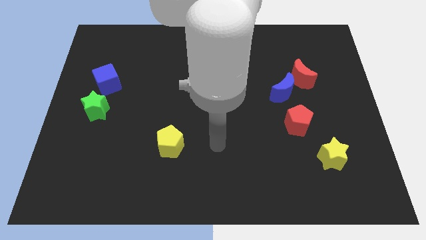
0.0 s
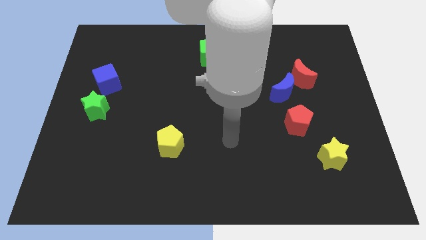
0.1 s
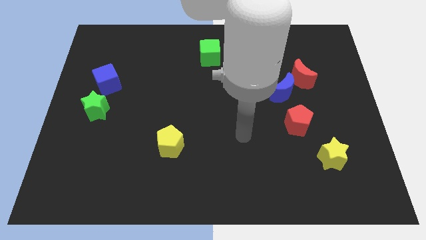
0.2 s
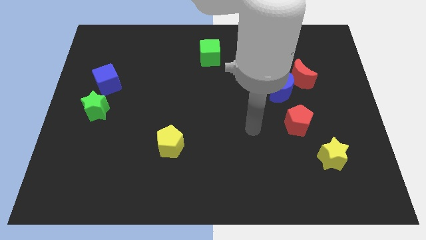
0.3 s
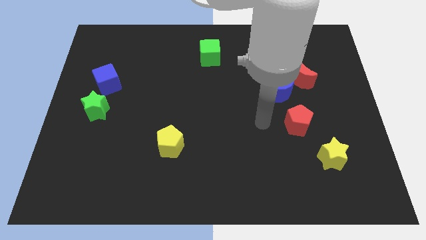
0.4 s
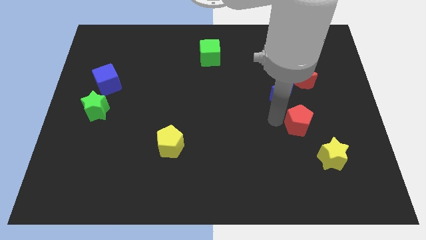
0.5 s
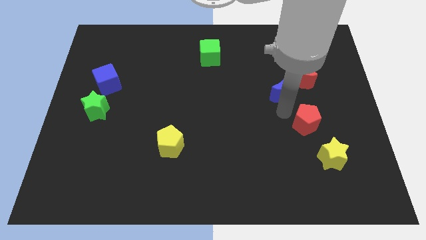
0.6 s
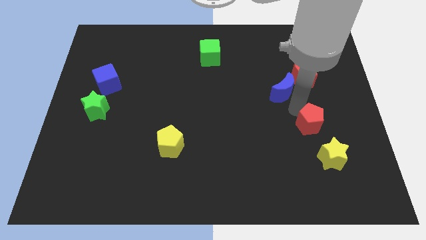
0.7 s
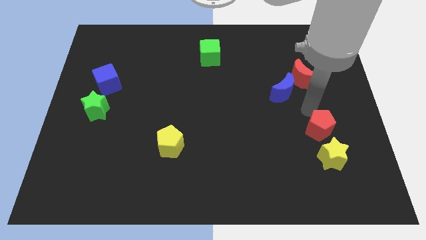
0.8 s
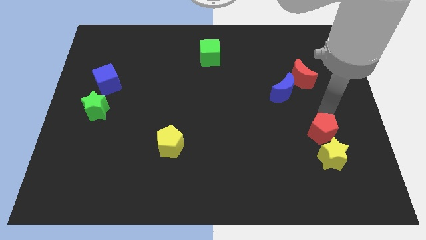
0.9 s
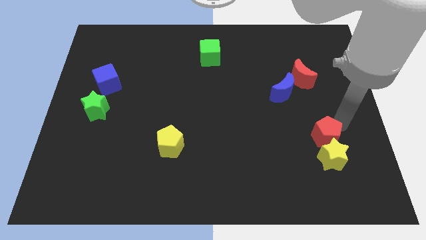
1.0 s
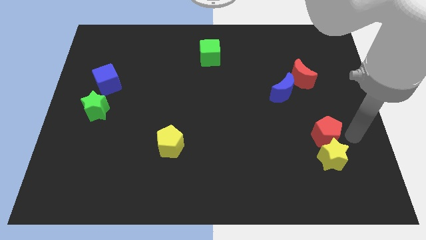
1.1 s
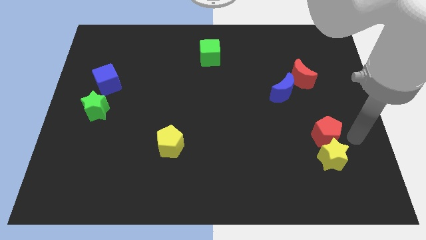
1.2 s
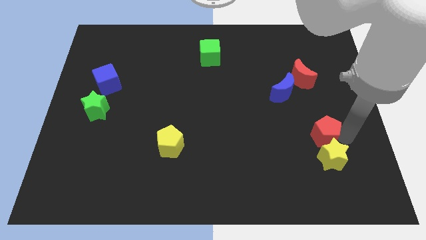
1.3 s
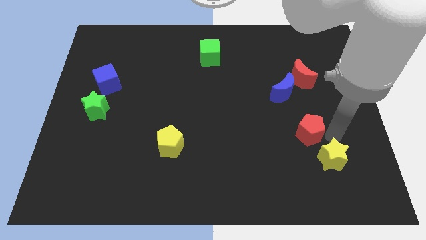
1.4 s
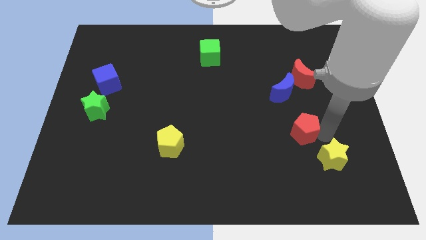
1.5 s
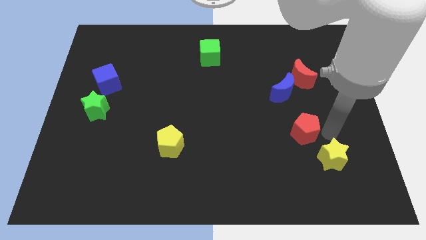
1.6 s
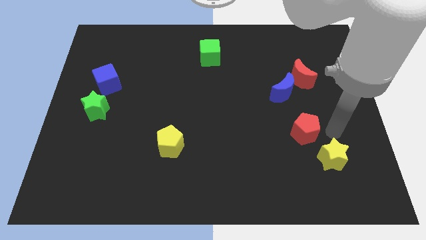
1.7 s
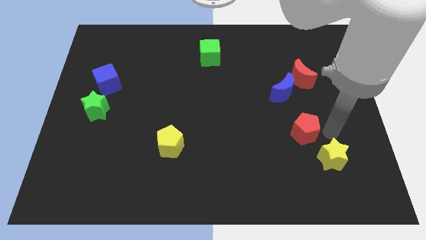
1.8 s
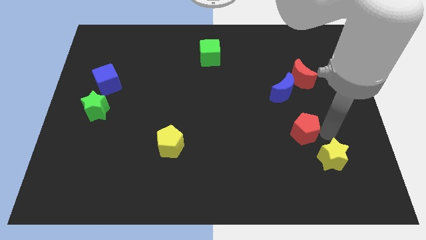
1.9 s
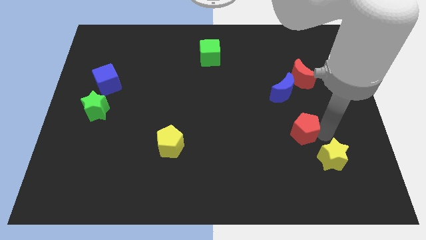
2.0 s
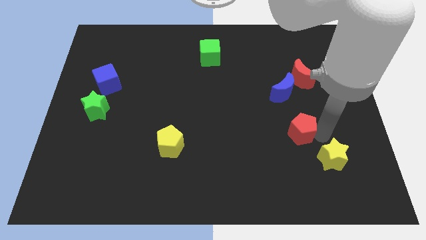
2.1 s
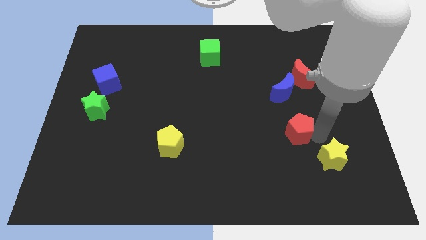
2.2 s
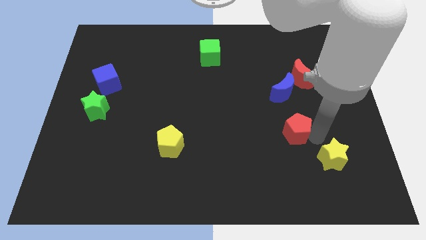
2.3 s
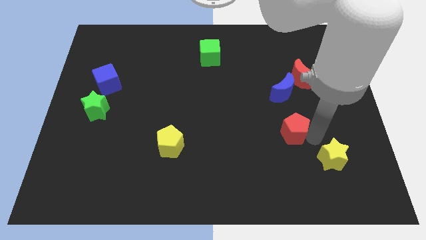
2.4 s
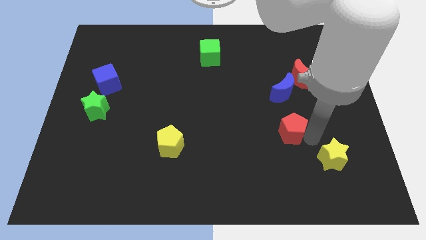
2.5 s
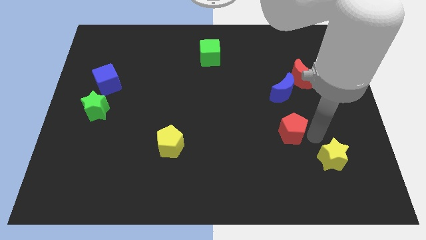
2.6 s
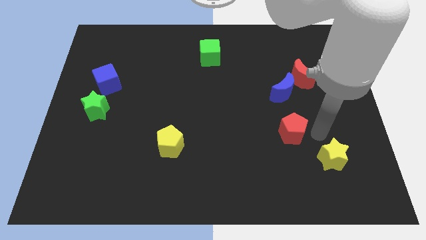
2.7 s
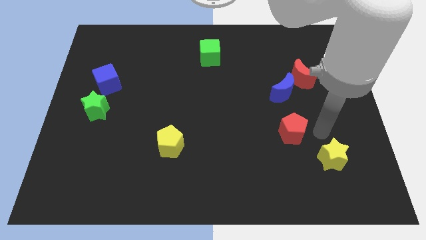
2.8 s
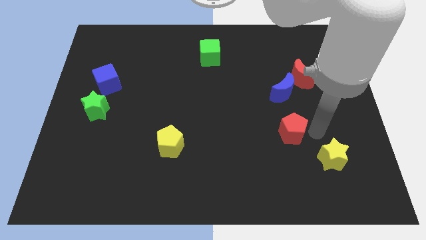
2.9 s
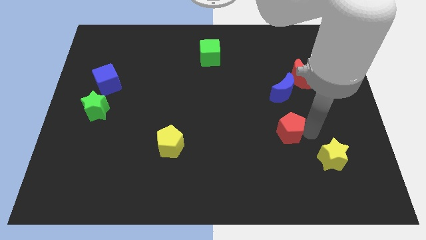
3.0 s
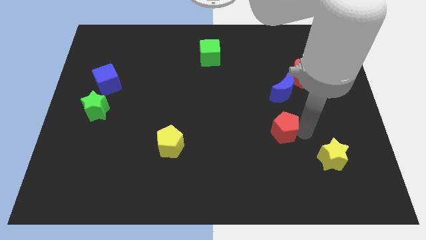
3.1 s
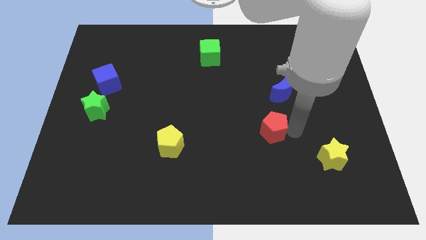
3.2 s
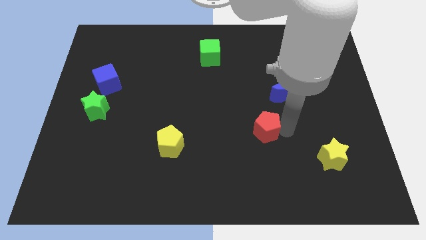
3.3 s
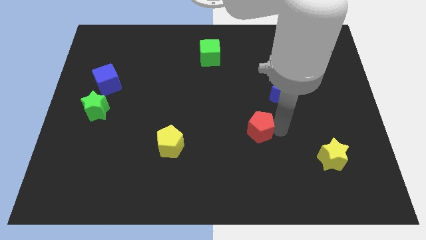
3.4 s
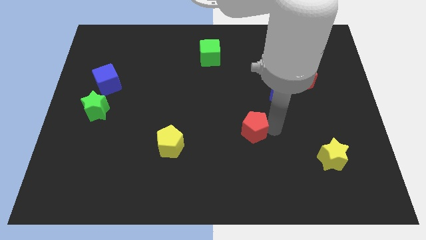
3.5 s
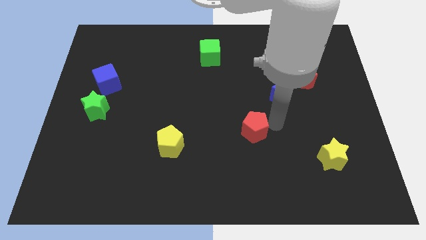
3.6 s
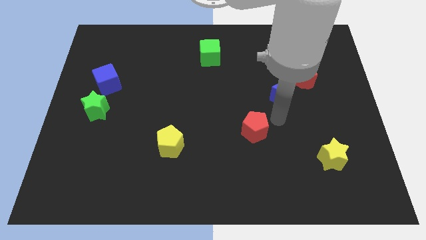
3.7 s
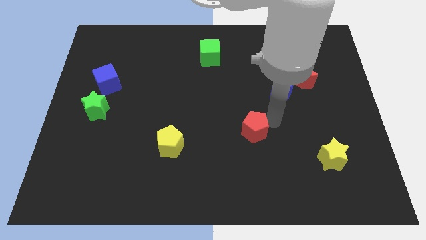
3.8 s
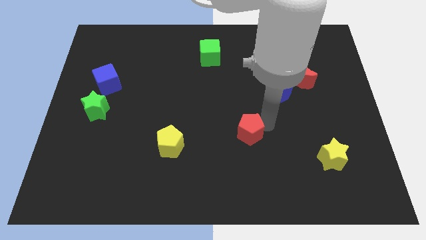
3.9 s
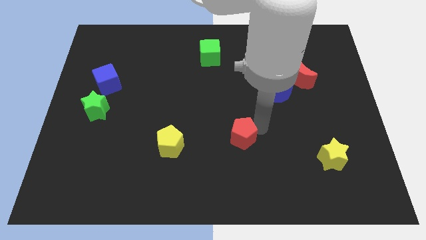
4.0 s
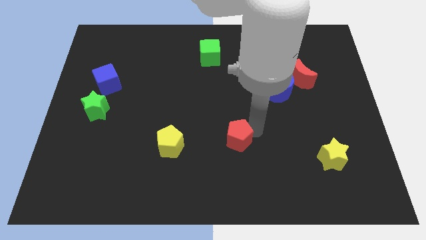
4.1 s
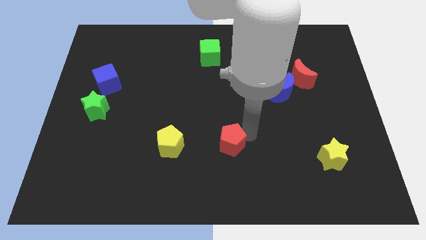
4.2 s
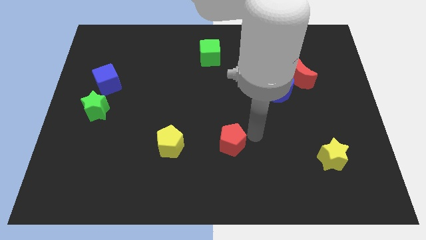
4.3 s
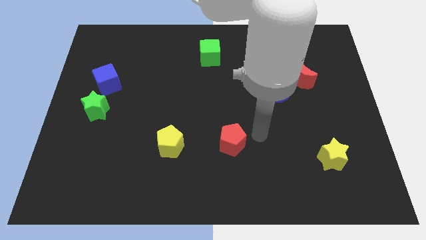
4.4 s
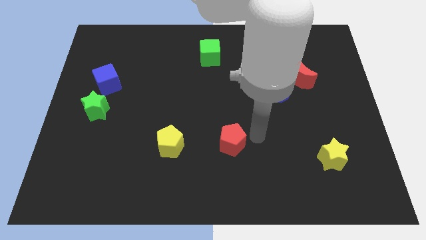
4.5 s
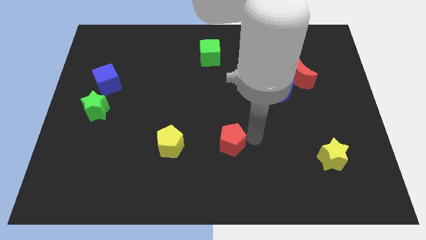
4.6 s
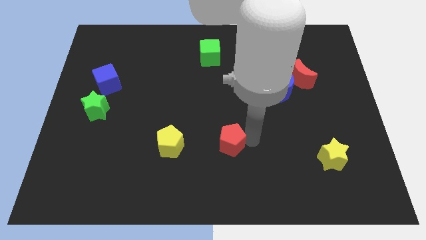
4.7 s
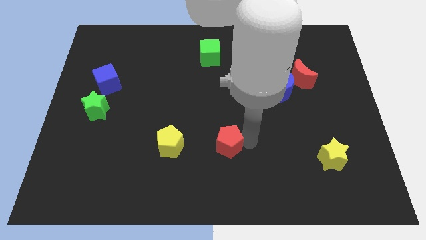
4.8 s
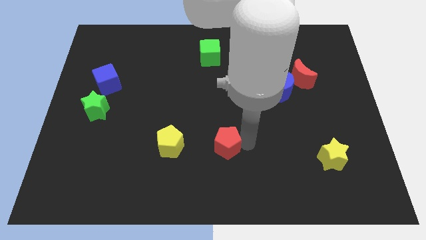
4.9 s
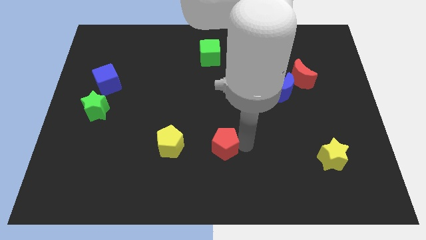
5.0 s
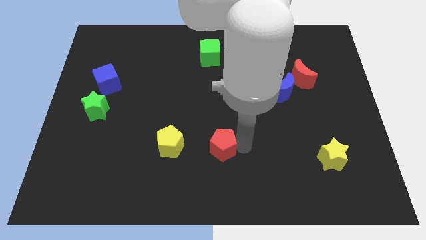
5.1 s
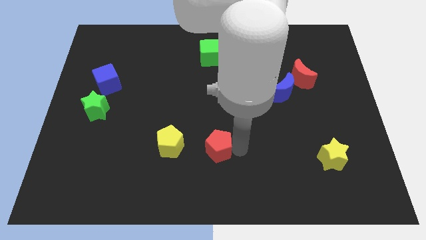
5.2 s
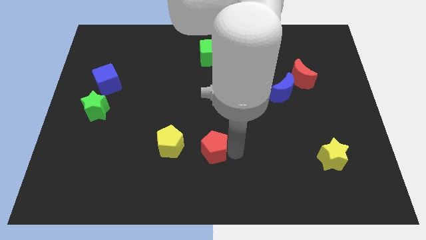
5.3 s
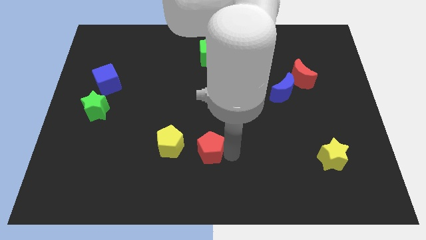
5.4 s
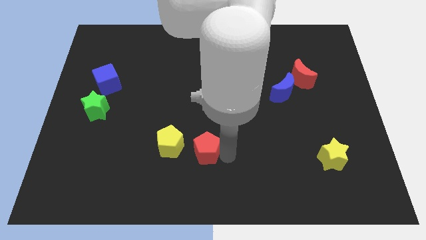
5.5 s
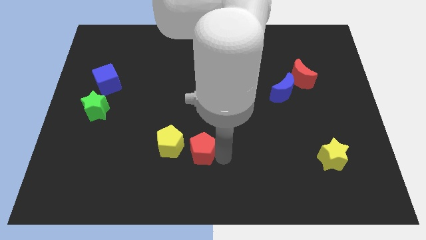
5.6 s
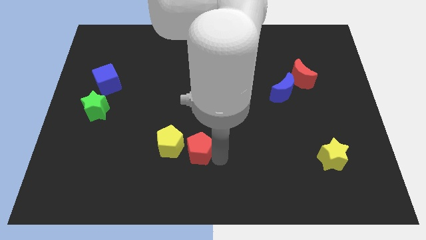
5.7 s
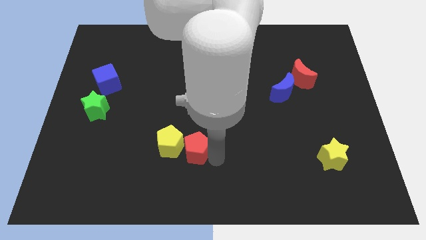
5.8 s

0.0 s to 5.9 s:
push the red pentagon close to the yellow pentagon
